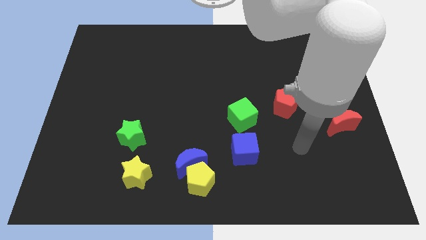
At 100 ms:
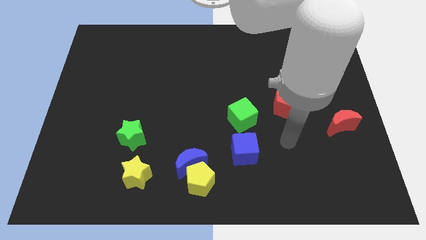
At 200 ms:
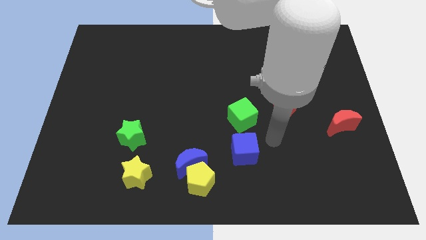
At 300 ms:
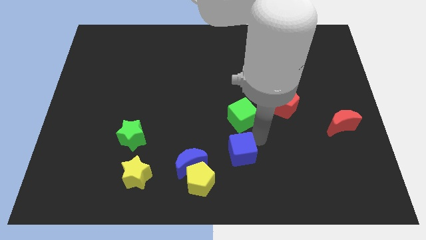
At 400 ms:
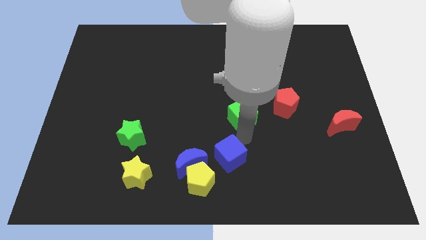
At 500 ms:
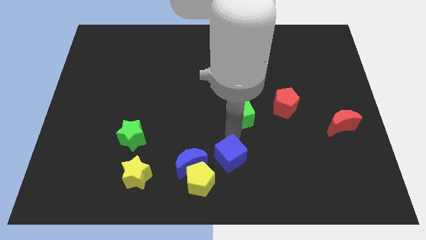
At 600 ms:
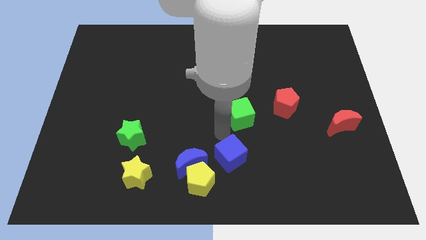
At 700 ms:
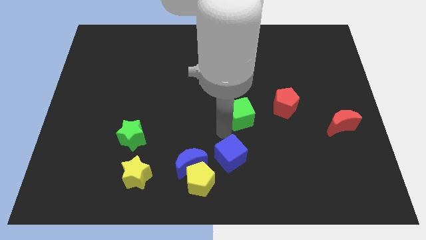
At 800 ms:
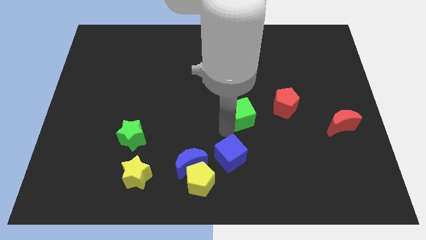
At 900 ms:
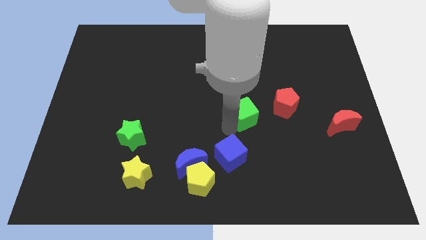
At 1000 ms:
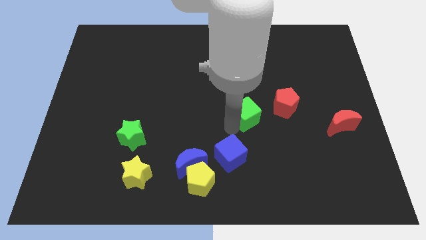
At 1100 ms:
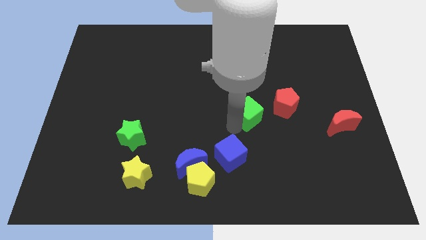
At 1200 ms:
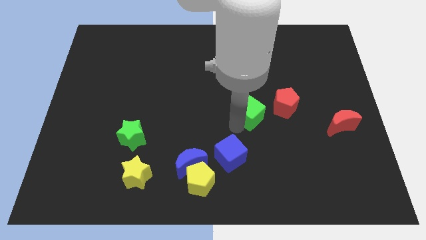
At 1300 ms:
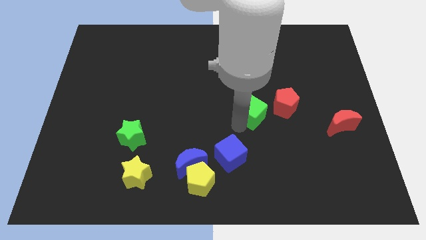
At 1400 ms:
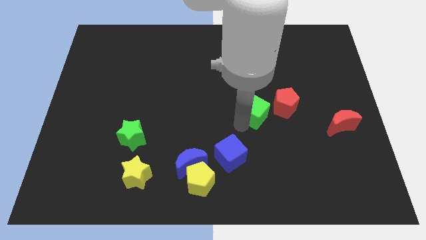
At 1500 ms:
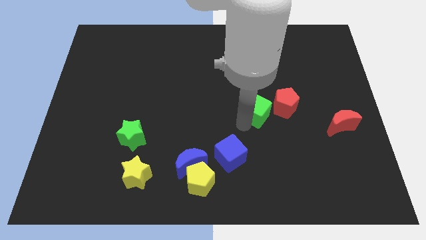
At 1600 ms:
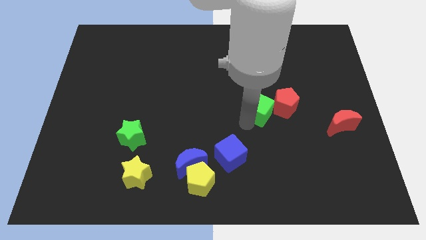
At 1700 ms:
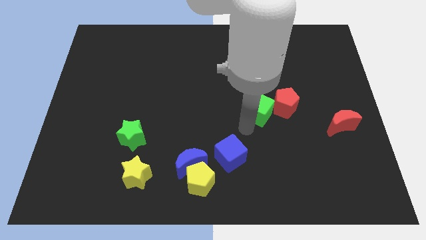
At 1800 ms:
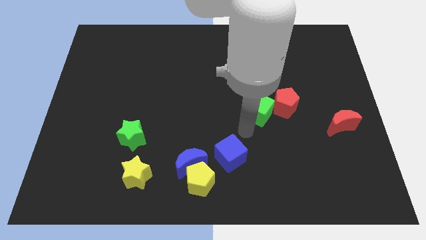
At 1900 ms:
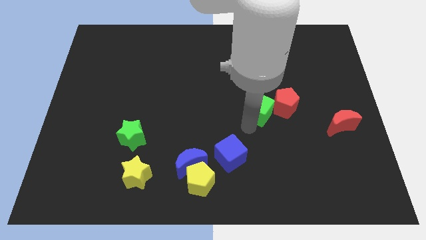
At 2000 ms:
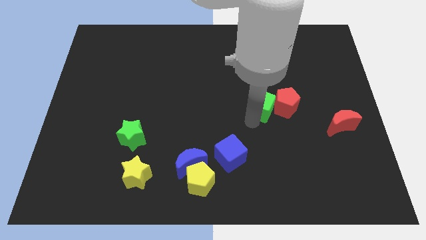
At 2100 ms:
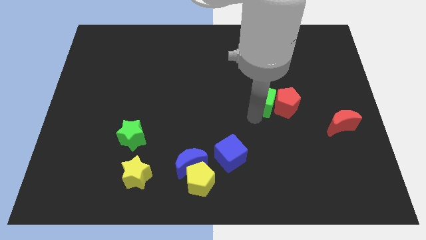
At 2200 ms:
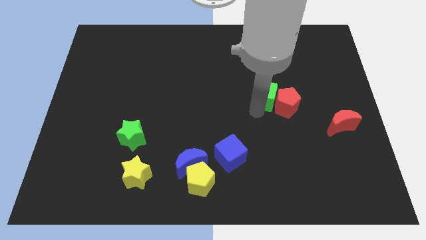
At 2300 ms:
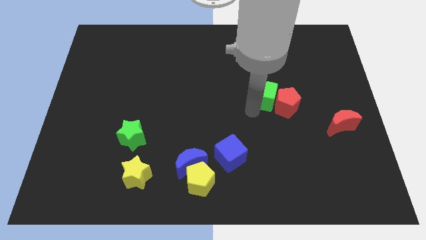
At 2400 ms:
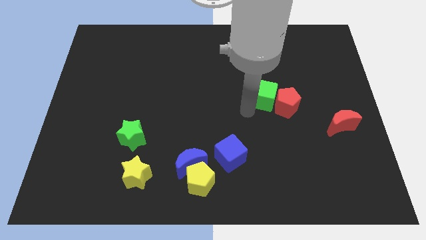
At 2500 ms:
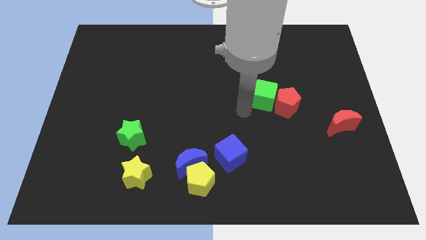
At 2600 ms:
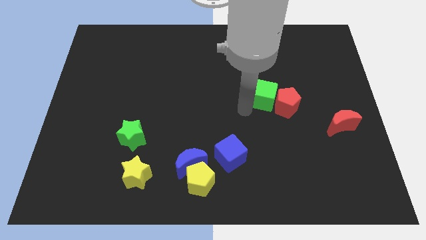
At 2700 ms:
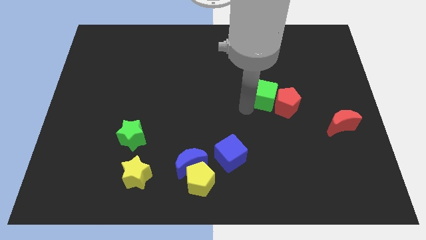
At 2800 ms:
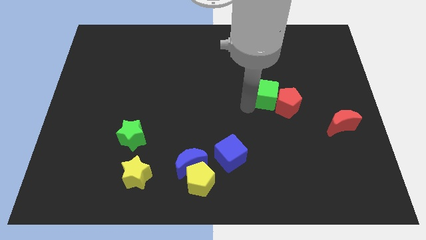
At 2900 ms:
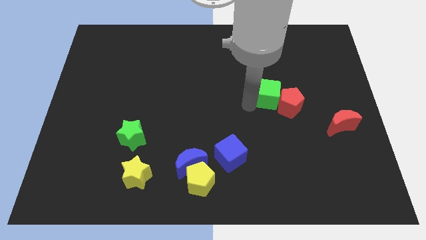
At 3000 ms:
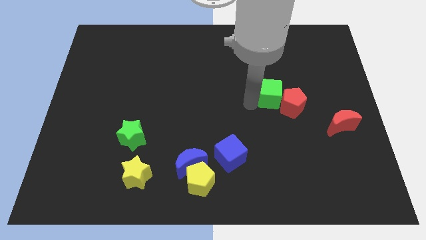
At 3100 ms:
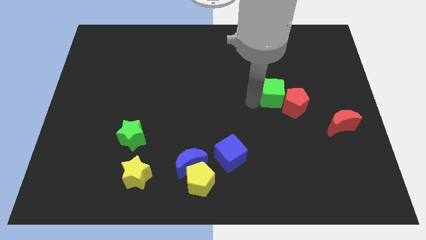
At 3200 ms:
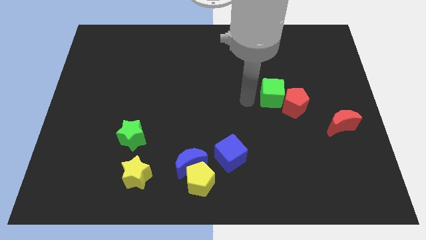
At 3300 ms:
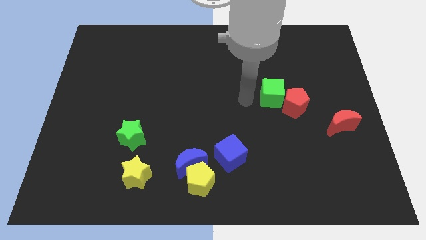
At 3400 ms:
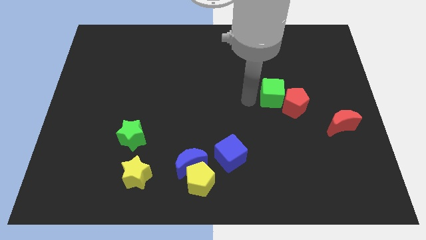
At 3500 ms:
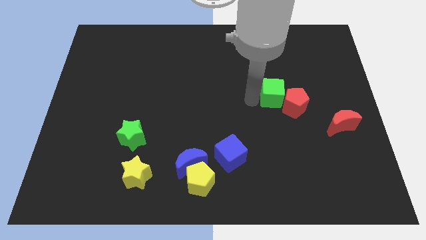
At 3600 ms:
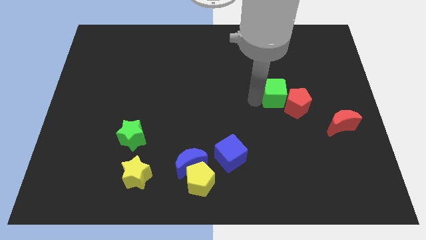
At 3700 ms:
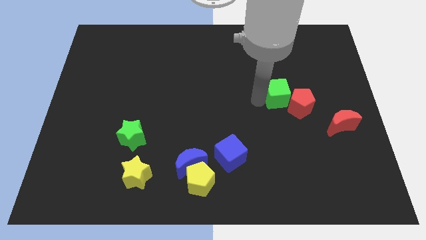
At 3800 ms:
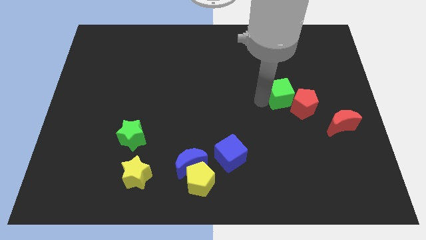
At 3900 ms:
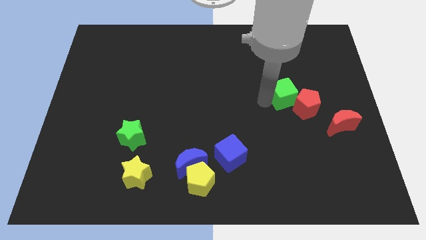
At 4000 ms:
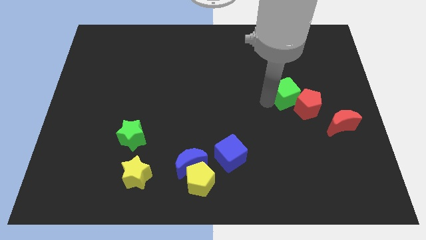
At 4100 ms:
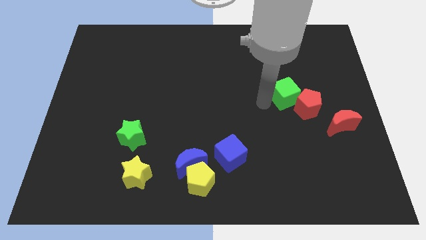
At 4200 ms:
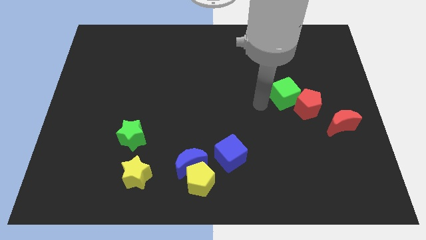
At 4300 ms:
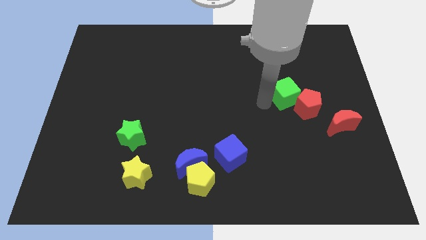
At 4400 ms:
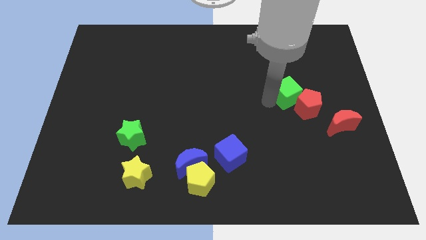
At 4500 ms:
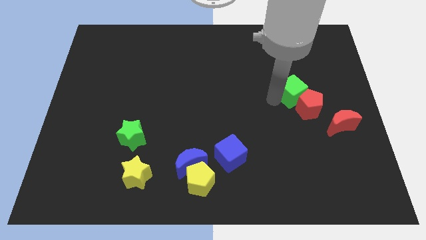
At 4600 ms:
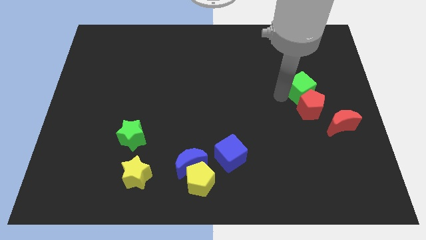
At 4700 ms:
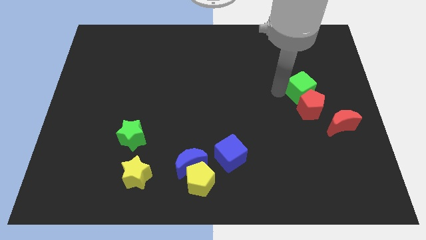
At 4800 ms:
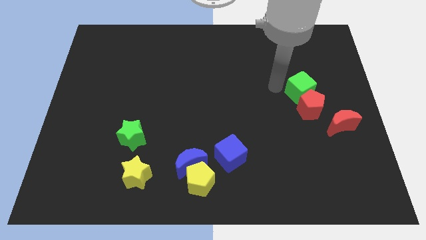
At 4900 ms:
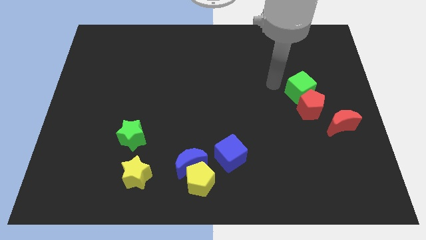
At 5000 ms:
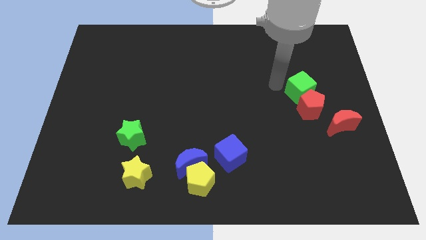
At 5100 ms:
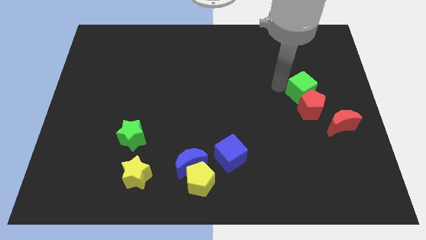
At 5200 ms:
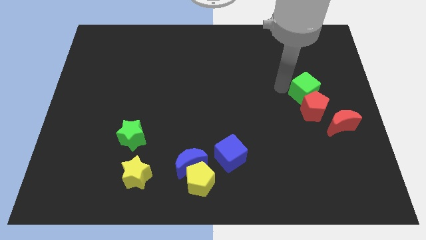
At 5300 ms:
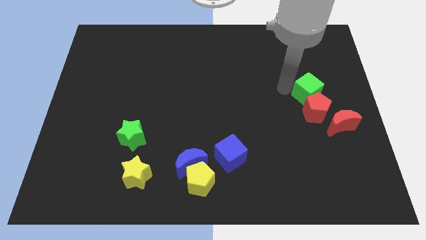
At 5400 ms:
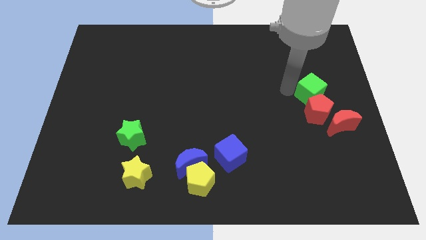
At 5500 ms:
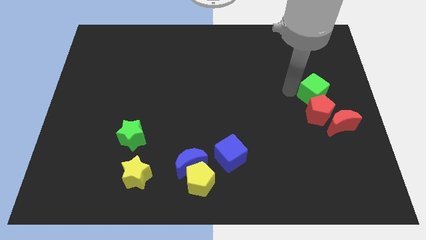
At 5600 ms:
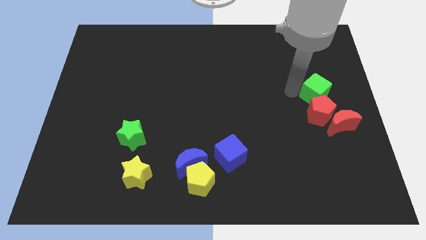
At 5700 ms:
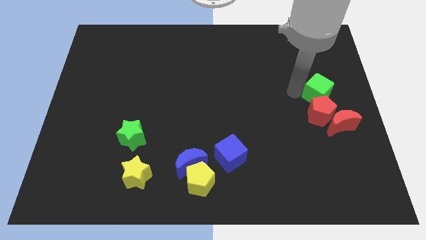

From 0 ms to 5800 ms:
put the green cube to the right side
